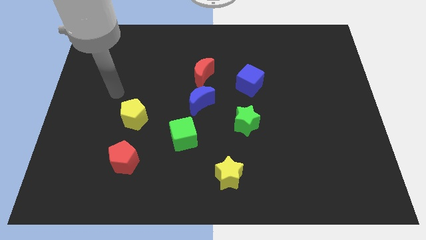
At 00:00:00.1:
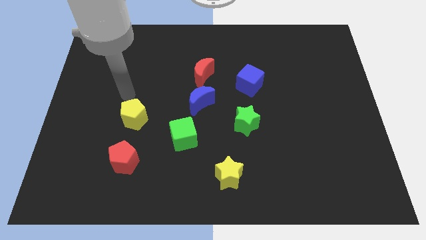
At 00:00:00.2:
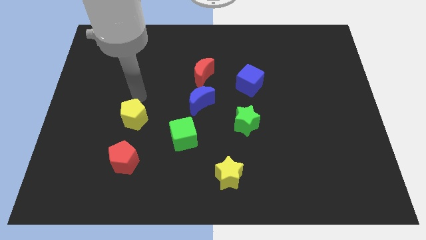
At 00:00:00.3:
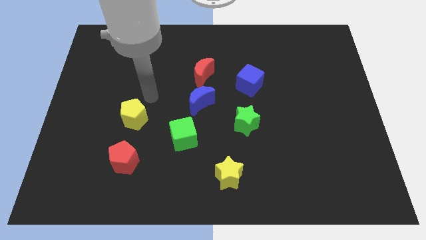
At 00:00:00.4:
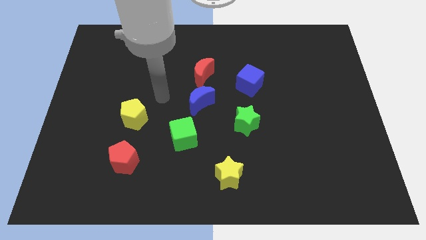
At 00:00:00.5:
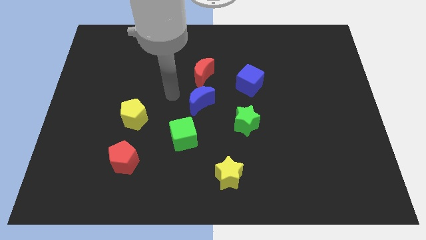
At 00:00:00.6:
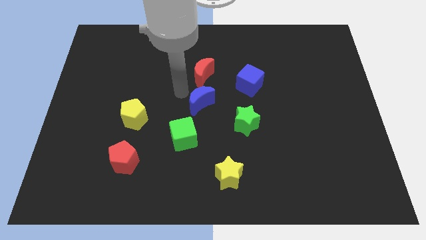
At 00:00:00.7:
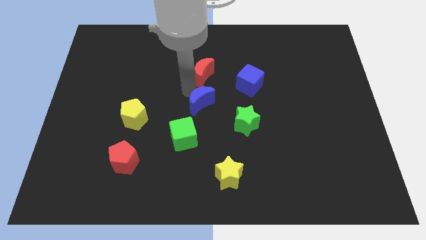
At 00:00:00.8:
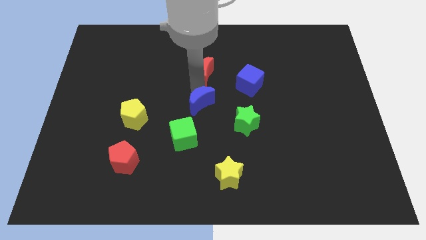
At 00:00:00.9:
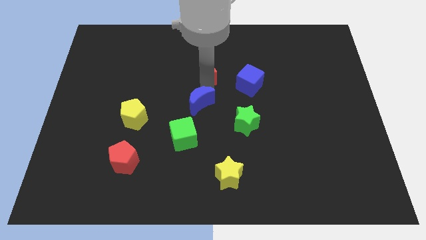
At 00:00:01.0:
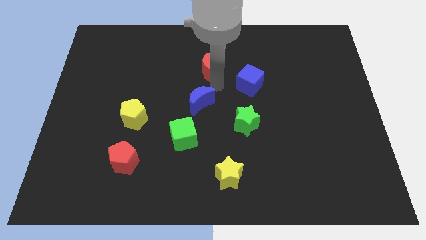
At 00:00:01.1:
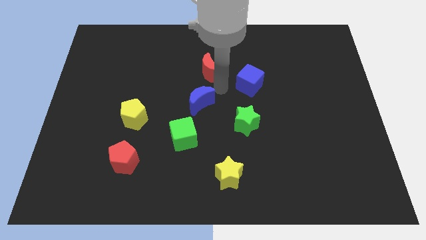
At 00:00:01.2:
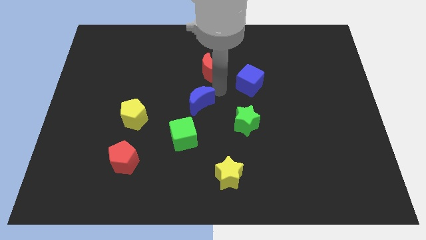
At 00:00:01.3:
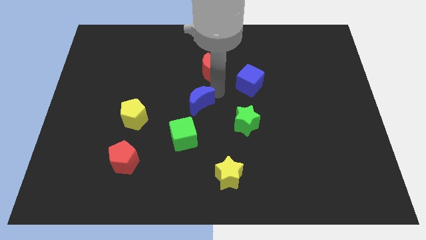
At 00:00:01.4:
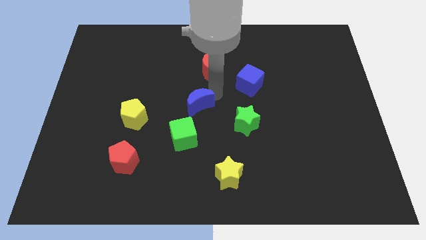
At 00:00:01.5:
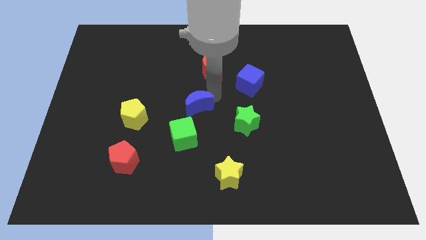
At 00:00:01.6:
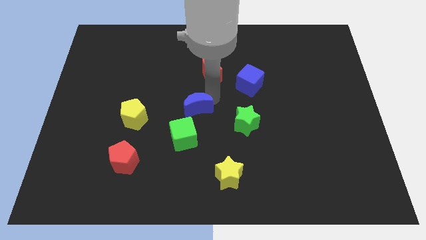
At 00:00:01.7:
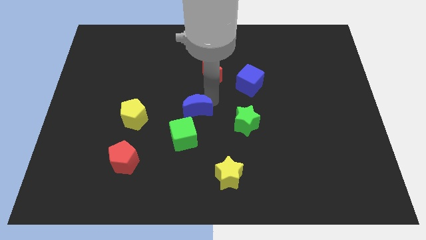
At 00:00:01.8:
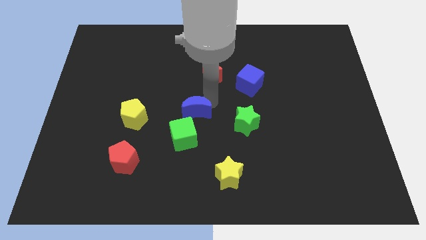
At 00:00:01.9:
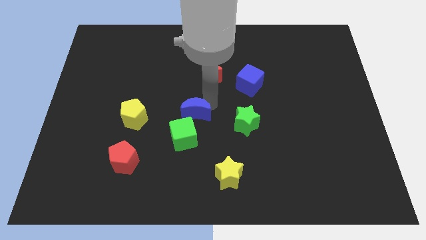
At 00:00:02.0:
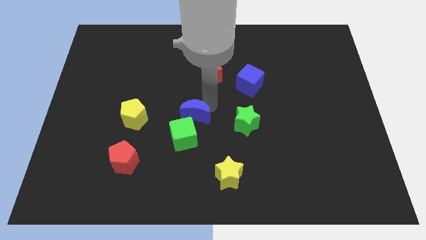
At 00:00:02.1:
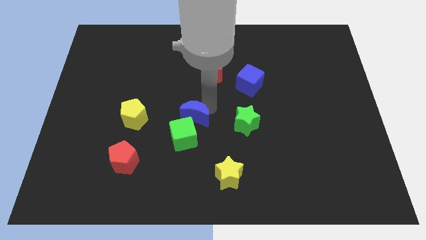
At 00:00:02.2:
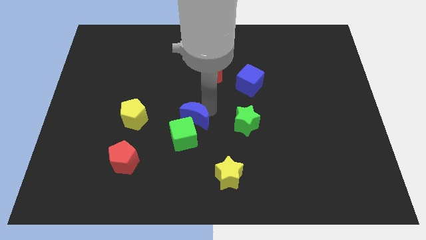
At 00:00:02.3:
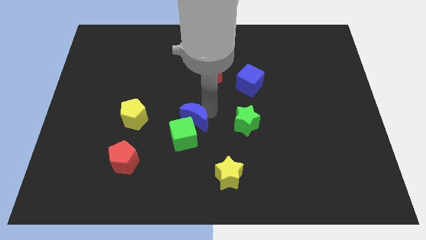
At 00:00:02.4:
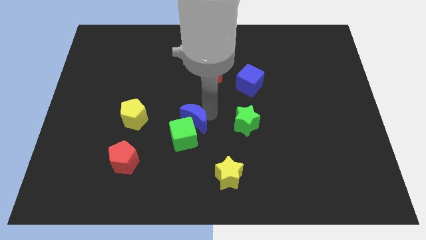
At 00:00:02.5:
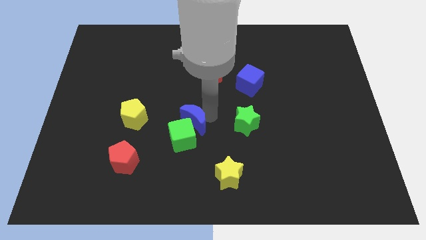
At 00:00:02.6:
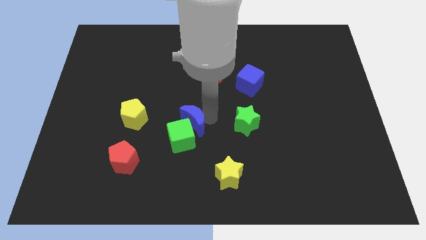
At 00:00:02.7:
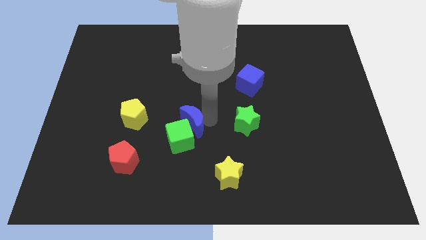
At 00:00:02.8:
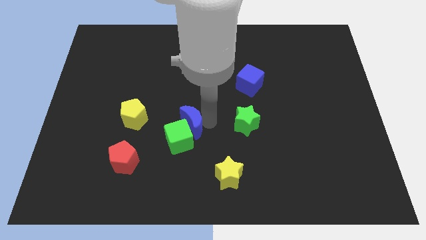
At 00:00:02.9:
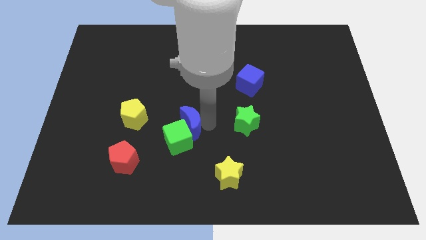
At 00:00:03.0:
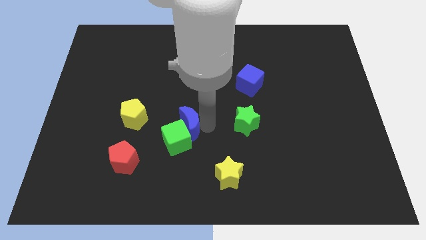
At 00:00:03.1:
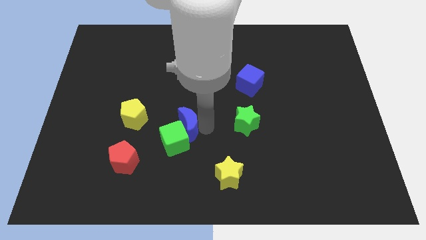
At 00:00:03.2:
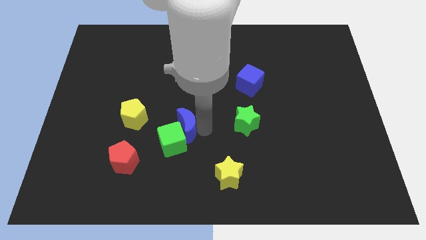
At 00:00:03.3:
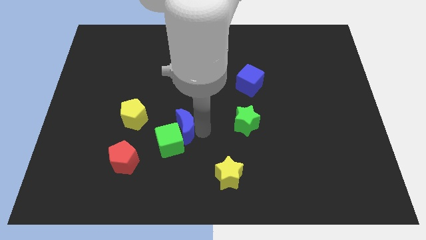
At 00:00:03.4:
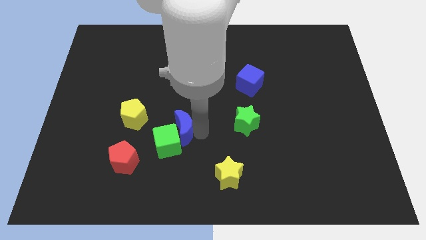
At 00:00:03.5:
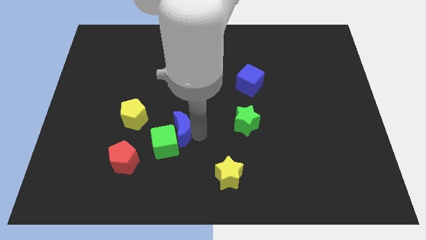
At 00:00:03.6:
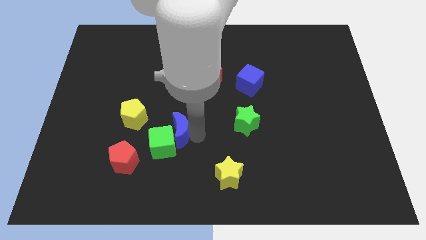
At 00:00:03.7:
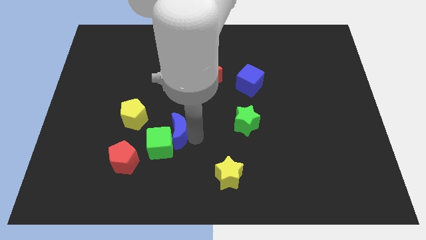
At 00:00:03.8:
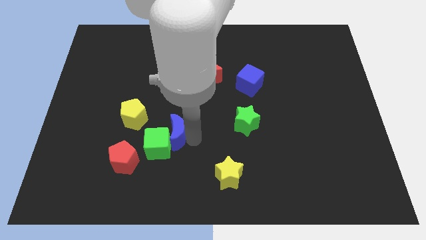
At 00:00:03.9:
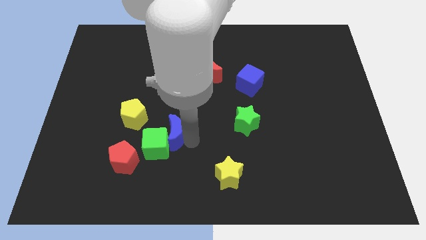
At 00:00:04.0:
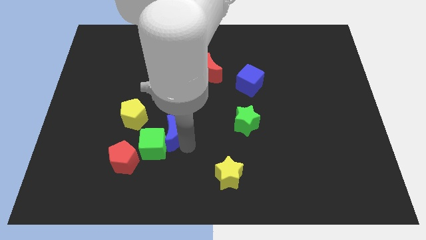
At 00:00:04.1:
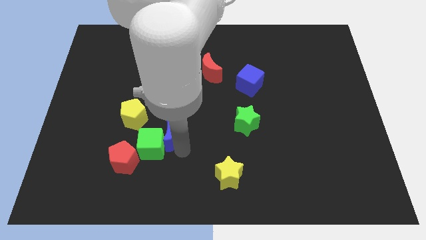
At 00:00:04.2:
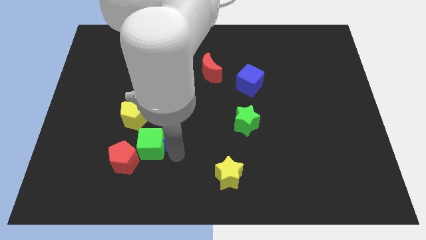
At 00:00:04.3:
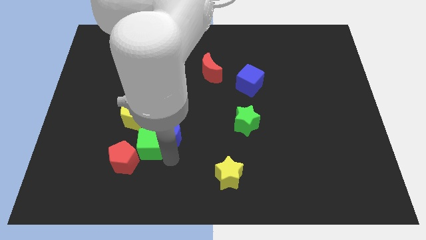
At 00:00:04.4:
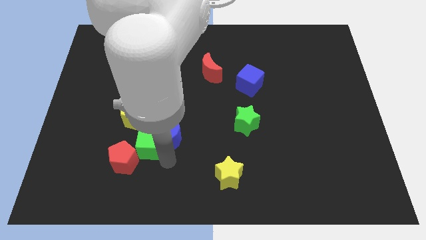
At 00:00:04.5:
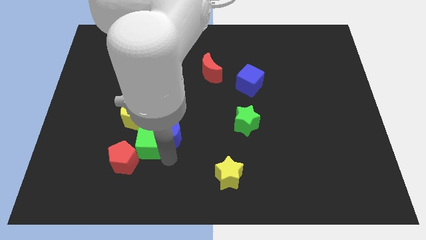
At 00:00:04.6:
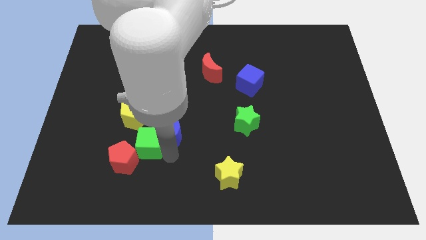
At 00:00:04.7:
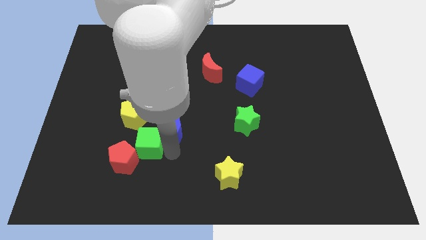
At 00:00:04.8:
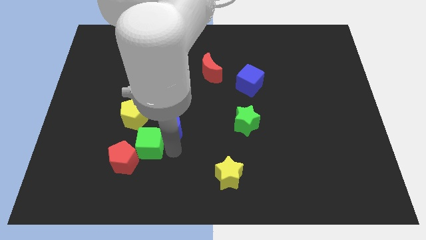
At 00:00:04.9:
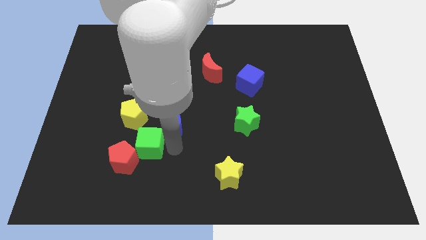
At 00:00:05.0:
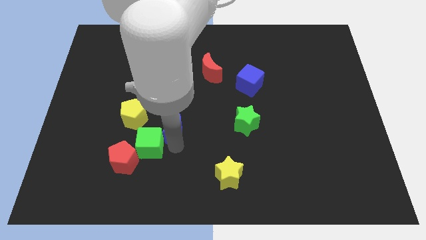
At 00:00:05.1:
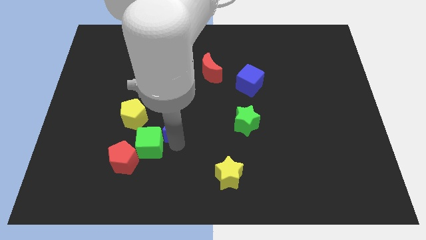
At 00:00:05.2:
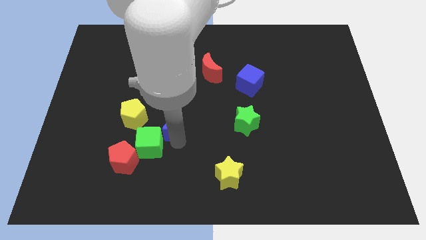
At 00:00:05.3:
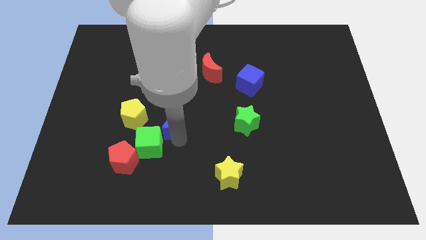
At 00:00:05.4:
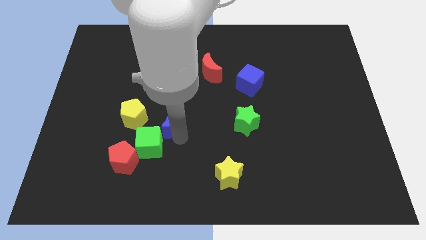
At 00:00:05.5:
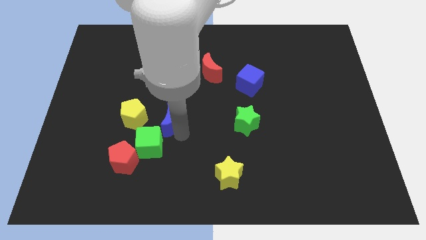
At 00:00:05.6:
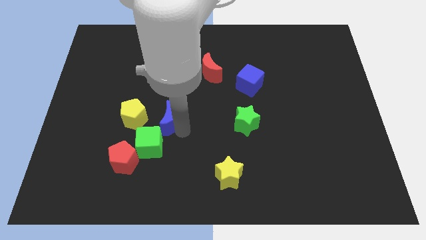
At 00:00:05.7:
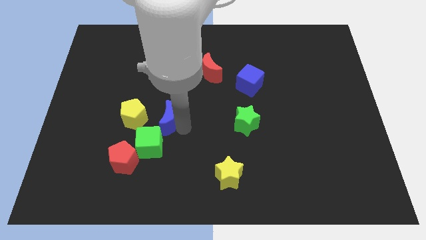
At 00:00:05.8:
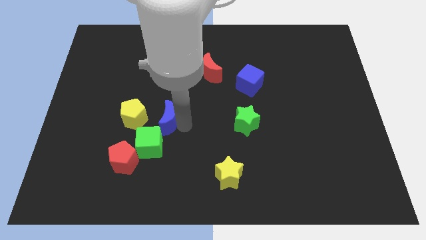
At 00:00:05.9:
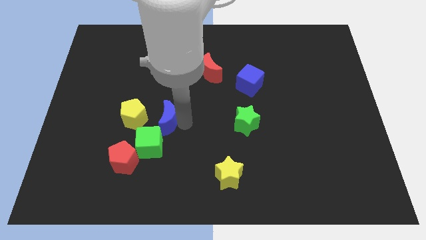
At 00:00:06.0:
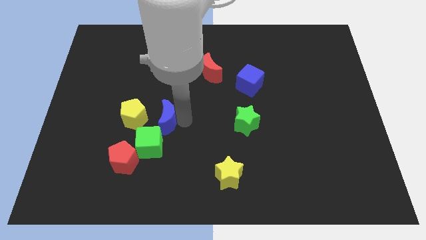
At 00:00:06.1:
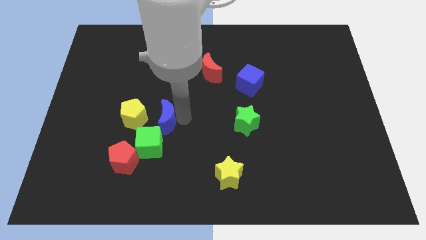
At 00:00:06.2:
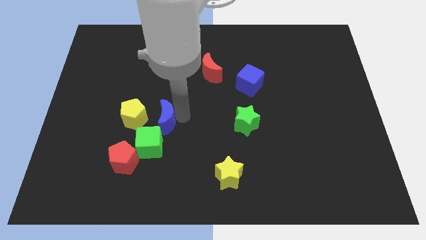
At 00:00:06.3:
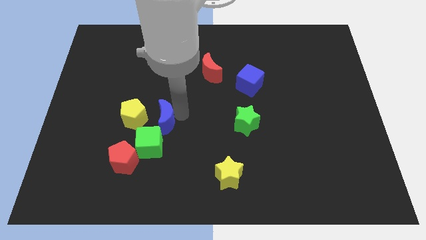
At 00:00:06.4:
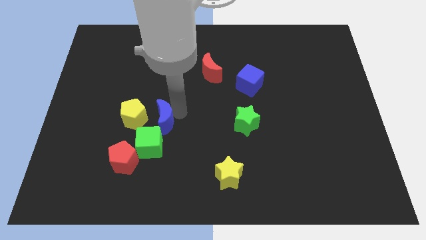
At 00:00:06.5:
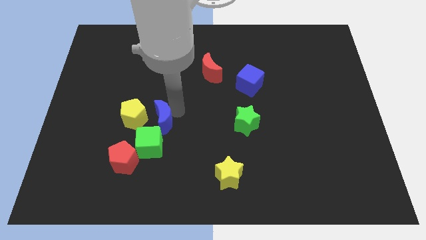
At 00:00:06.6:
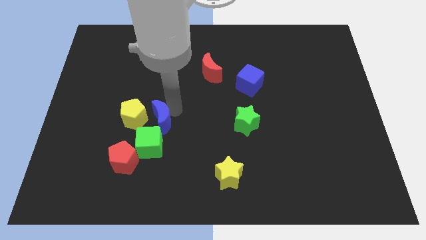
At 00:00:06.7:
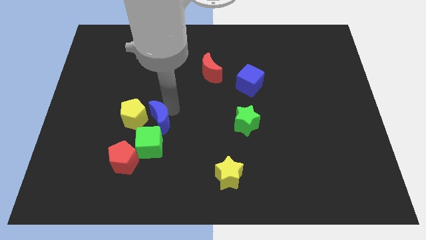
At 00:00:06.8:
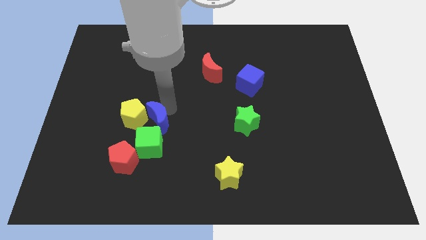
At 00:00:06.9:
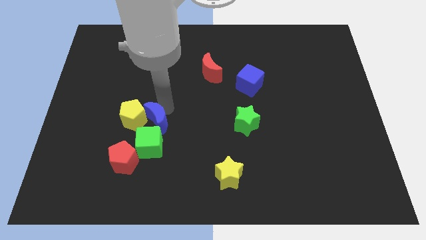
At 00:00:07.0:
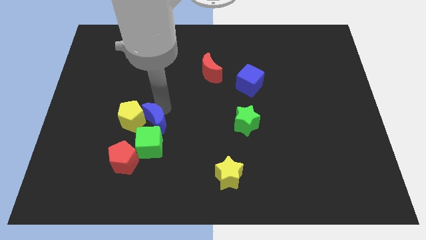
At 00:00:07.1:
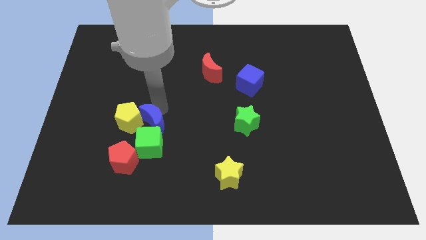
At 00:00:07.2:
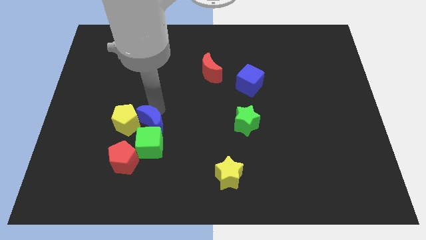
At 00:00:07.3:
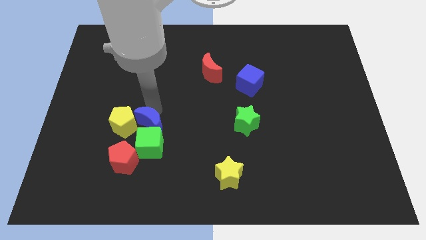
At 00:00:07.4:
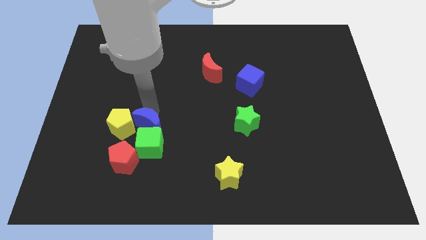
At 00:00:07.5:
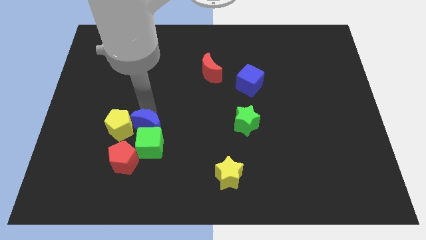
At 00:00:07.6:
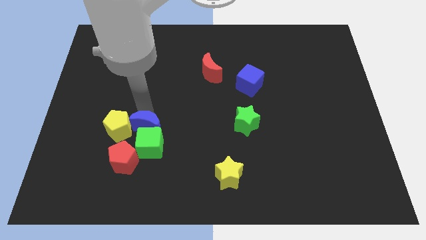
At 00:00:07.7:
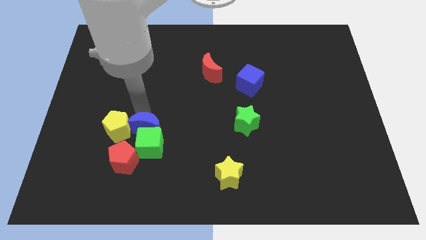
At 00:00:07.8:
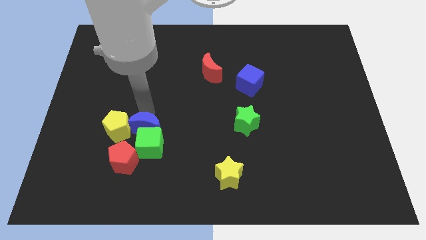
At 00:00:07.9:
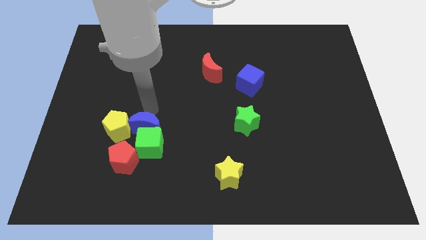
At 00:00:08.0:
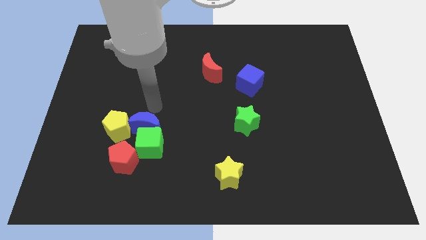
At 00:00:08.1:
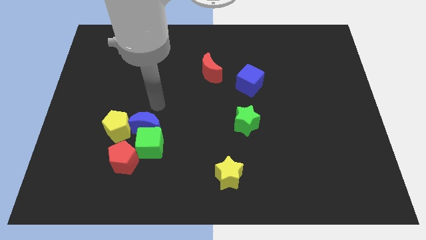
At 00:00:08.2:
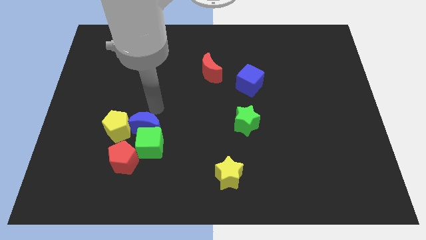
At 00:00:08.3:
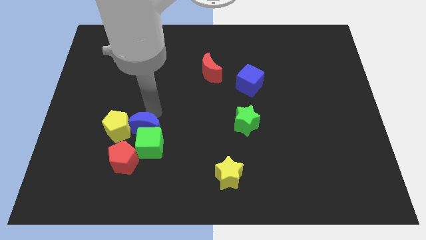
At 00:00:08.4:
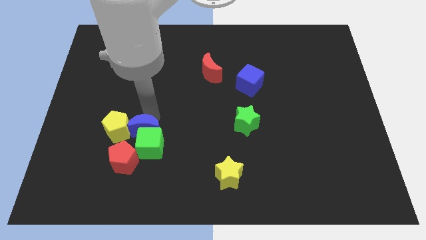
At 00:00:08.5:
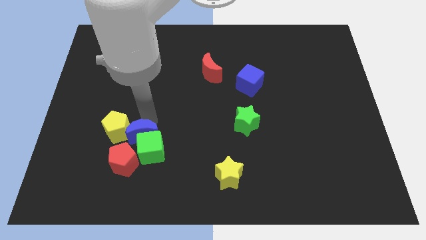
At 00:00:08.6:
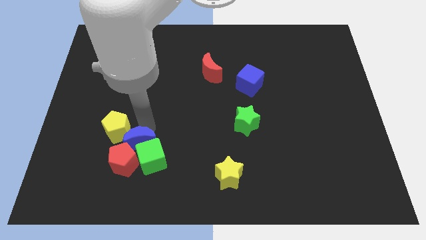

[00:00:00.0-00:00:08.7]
push the blue moon to the red pentagon
